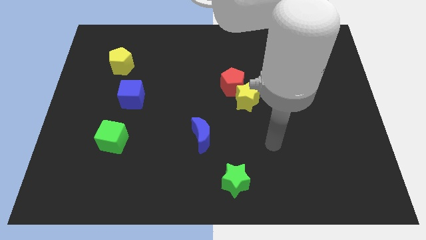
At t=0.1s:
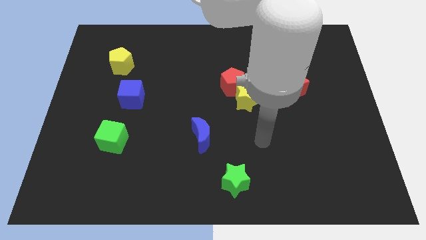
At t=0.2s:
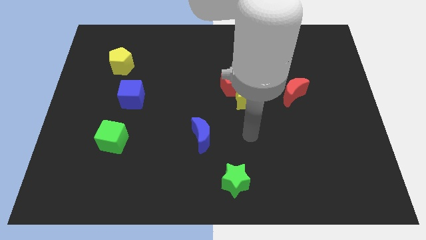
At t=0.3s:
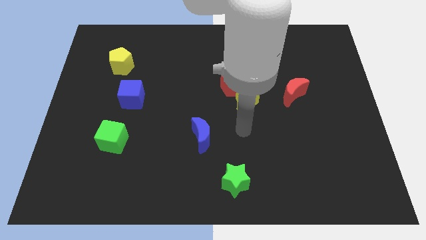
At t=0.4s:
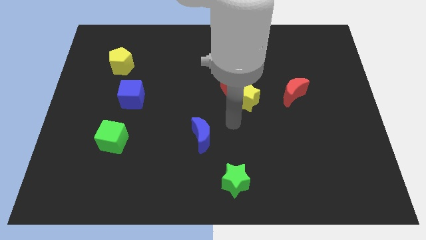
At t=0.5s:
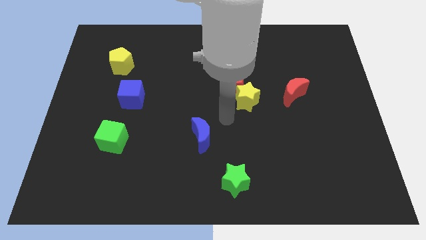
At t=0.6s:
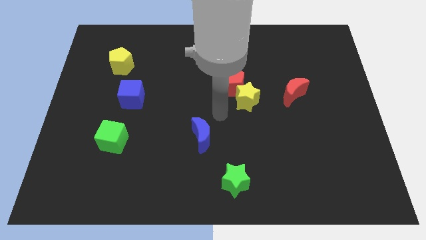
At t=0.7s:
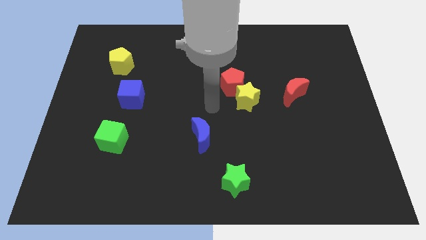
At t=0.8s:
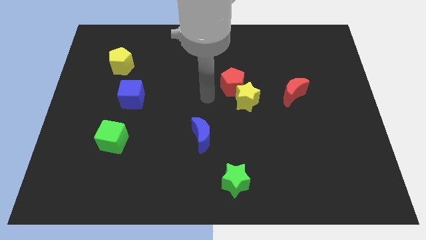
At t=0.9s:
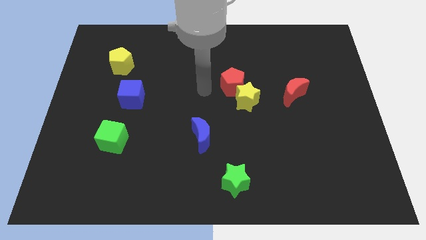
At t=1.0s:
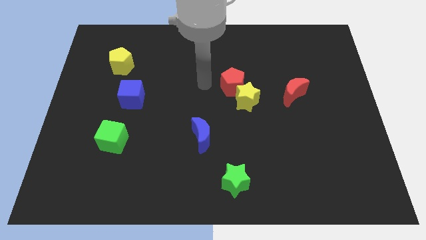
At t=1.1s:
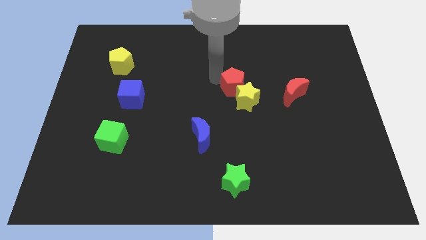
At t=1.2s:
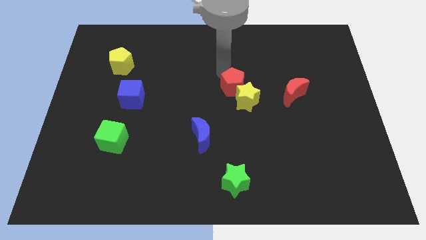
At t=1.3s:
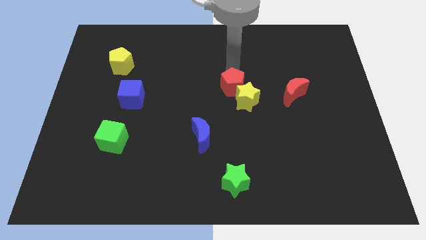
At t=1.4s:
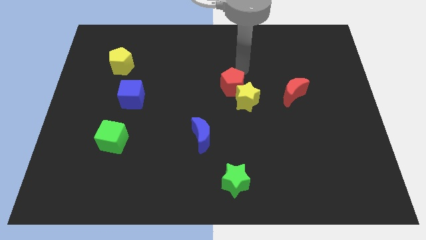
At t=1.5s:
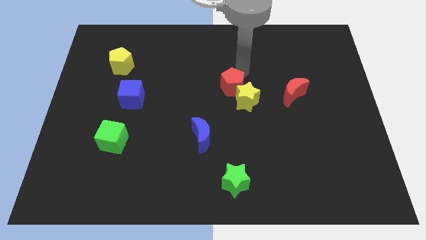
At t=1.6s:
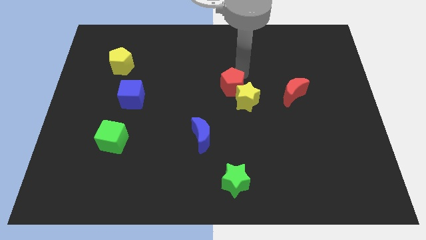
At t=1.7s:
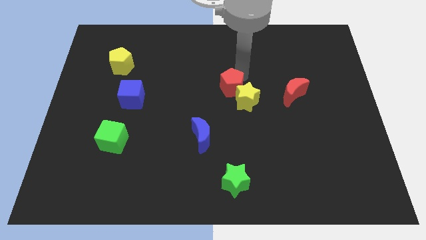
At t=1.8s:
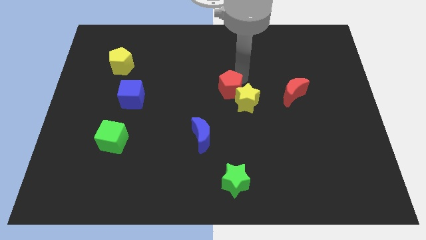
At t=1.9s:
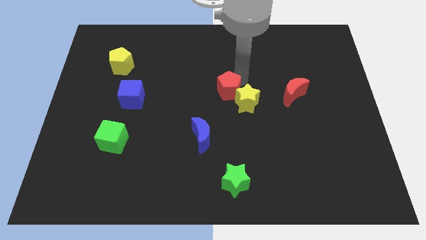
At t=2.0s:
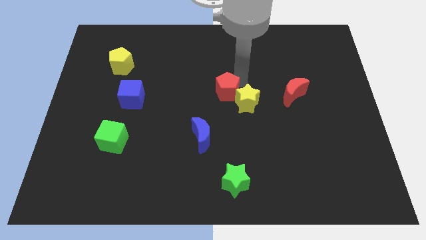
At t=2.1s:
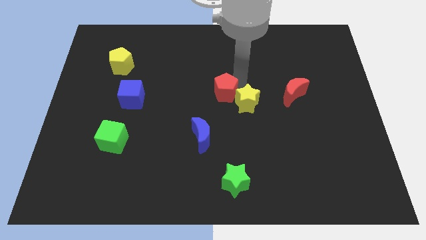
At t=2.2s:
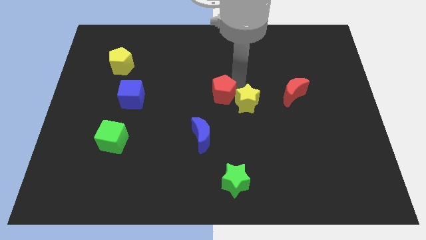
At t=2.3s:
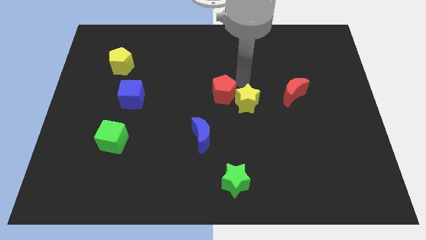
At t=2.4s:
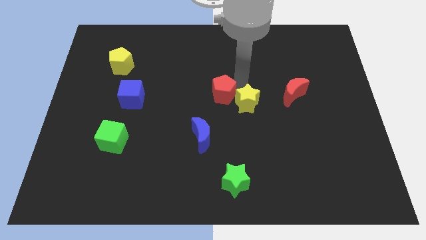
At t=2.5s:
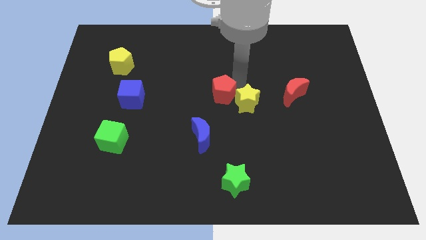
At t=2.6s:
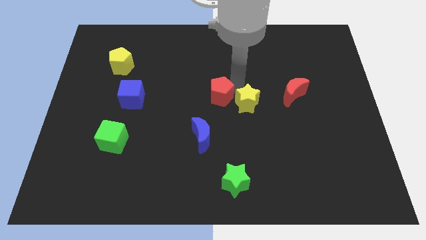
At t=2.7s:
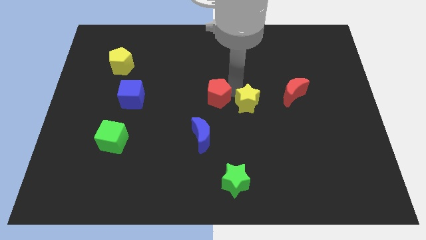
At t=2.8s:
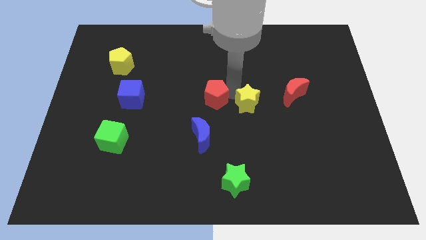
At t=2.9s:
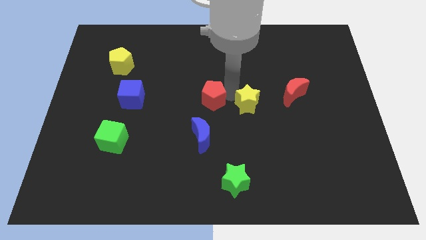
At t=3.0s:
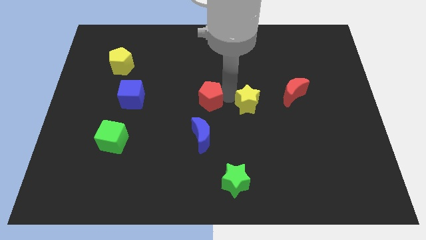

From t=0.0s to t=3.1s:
slightly push the red pentagon downwards and then left

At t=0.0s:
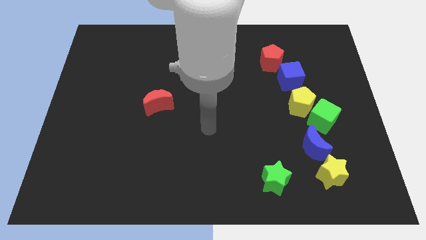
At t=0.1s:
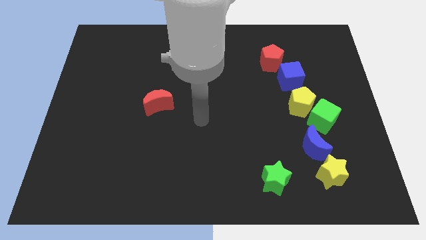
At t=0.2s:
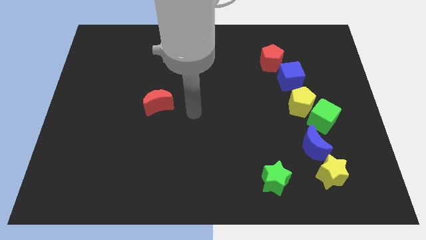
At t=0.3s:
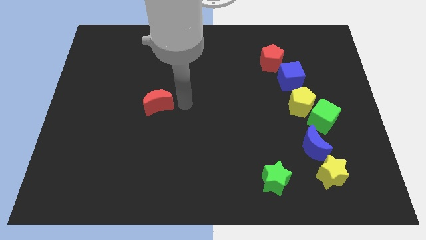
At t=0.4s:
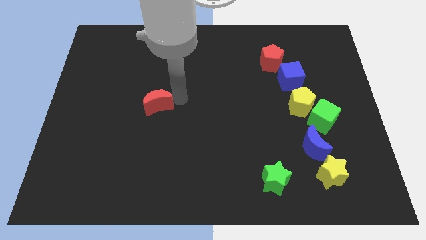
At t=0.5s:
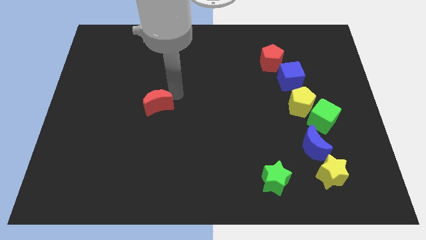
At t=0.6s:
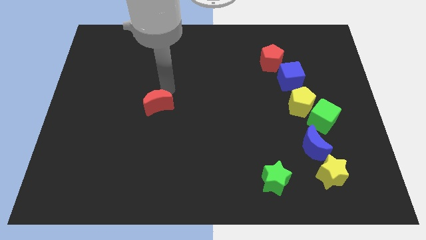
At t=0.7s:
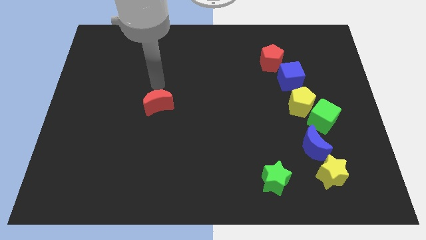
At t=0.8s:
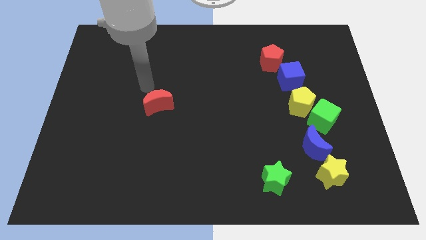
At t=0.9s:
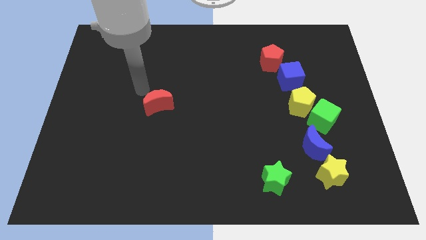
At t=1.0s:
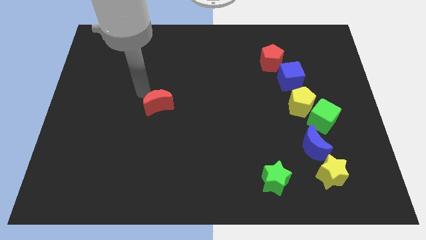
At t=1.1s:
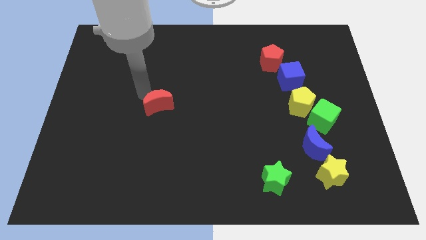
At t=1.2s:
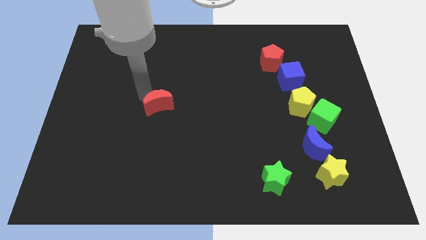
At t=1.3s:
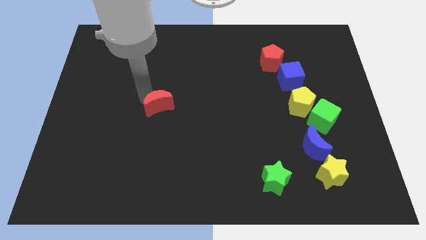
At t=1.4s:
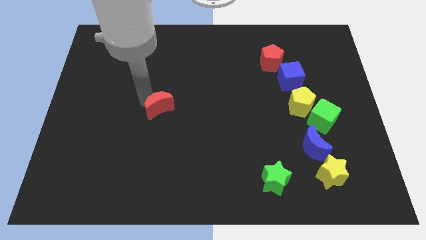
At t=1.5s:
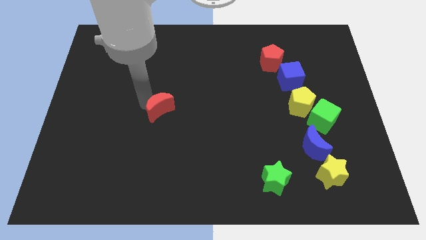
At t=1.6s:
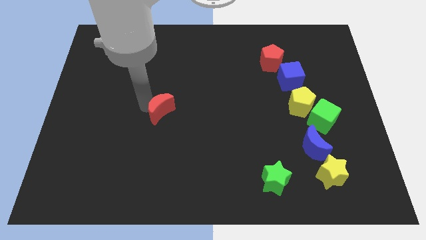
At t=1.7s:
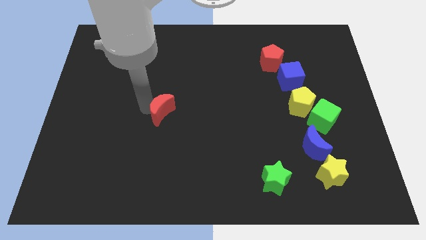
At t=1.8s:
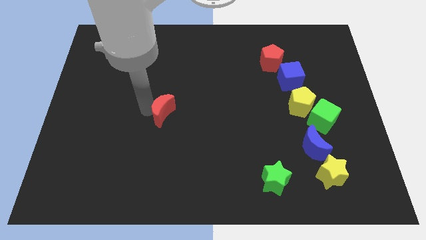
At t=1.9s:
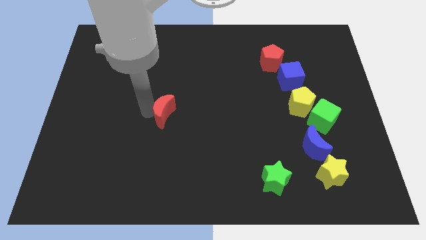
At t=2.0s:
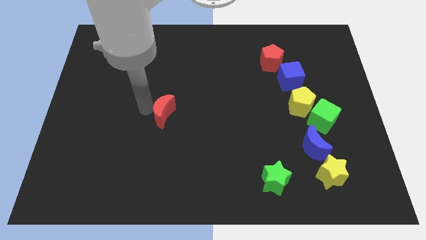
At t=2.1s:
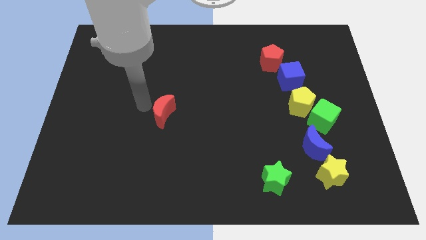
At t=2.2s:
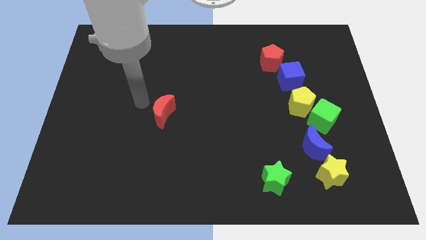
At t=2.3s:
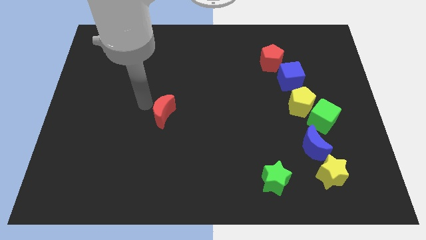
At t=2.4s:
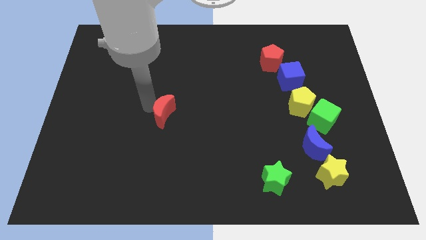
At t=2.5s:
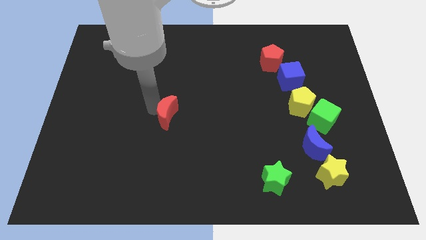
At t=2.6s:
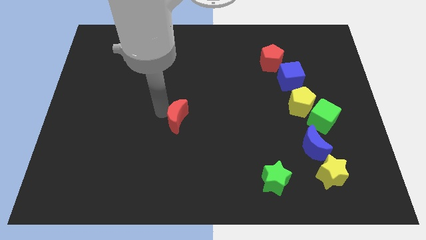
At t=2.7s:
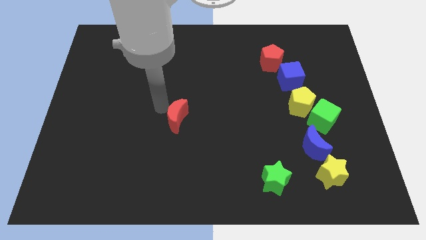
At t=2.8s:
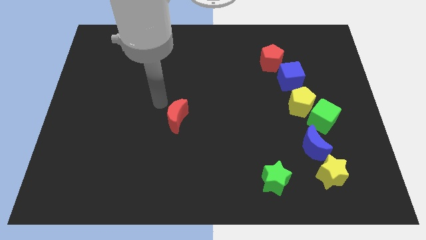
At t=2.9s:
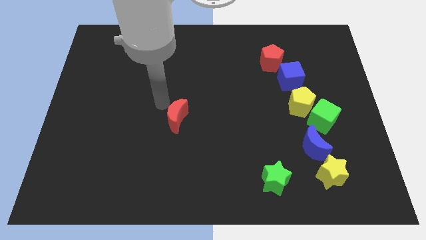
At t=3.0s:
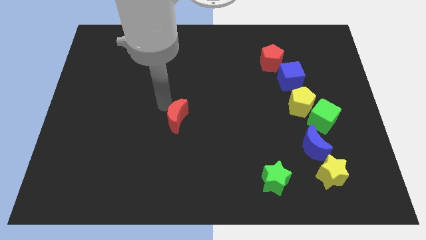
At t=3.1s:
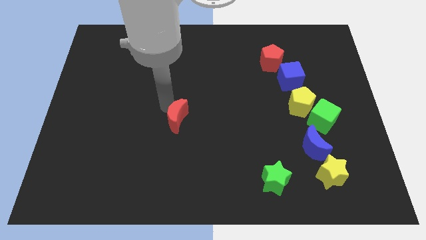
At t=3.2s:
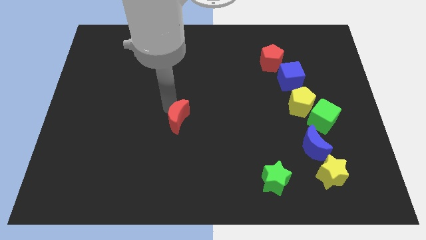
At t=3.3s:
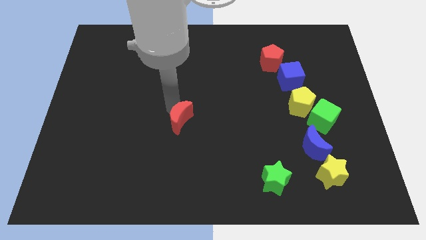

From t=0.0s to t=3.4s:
move the red moon down and to the right slightly

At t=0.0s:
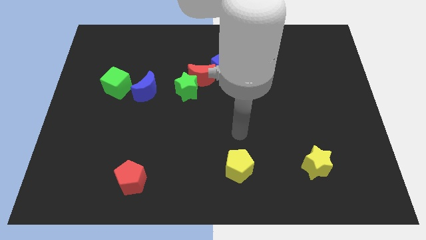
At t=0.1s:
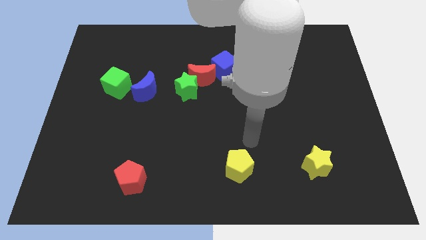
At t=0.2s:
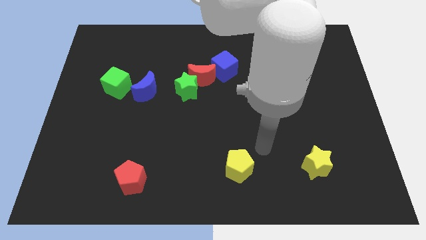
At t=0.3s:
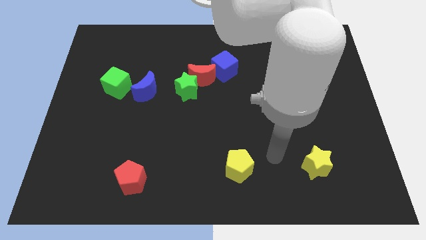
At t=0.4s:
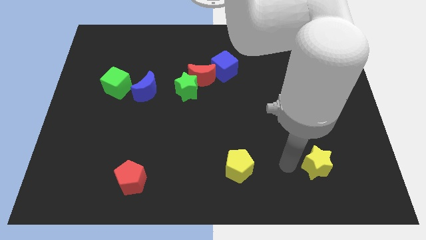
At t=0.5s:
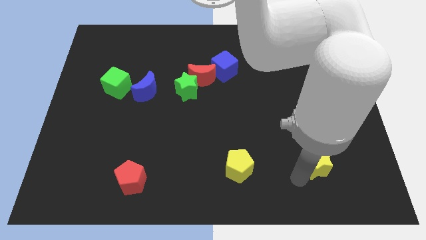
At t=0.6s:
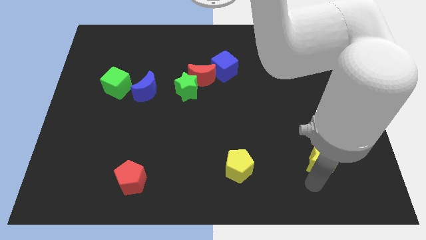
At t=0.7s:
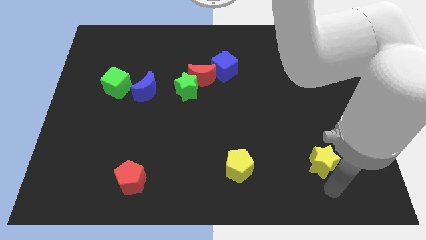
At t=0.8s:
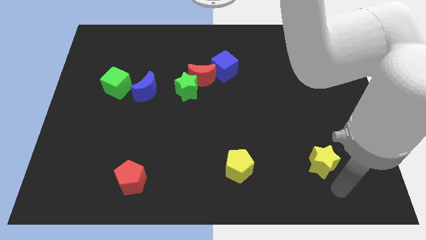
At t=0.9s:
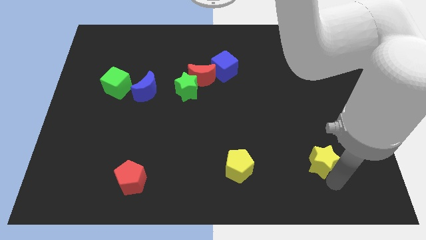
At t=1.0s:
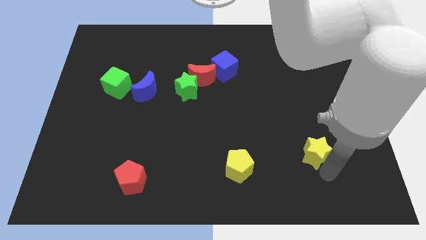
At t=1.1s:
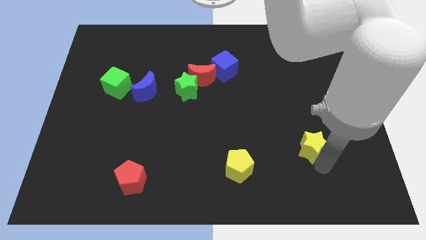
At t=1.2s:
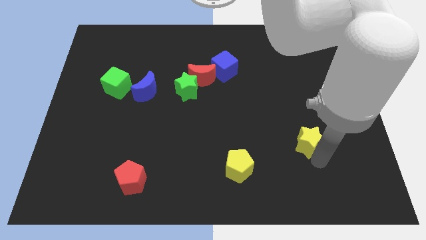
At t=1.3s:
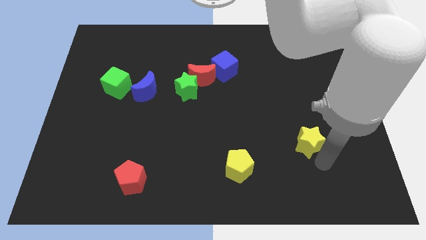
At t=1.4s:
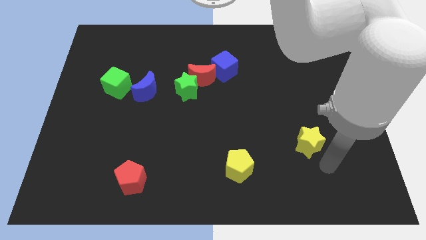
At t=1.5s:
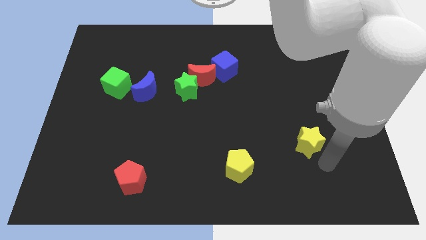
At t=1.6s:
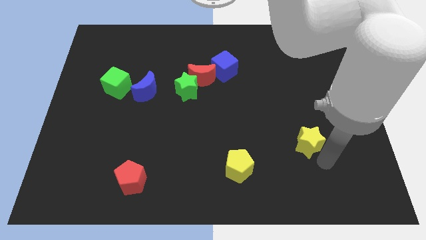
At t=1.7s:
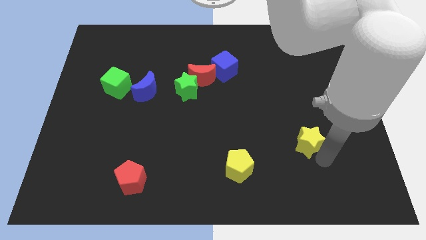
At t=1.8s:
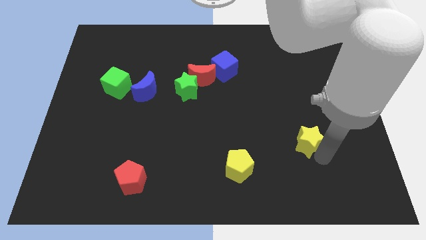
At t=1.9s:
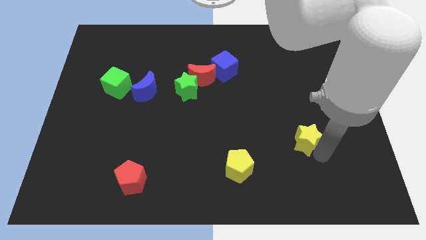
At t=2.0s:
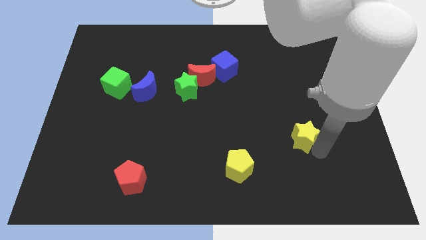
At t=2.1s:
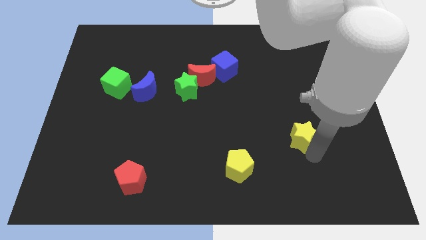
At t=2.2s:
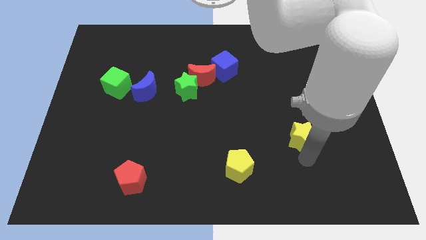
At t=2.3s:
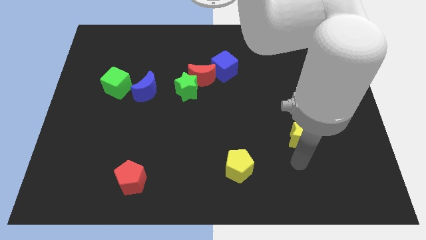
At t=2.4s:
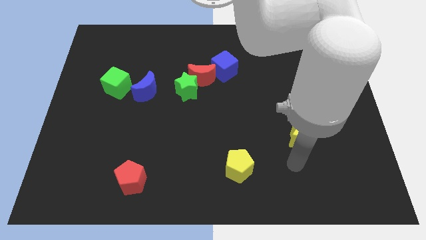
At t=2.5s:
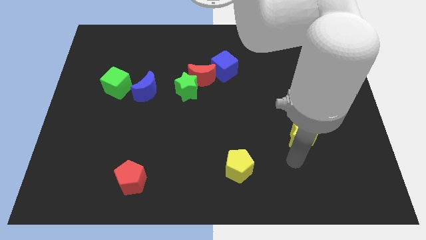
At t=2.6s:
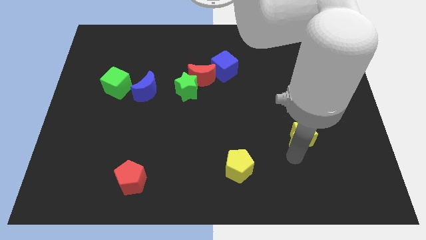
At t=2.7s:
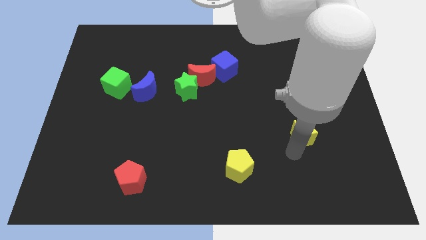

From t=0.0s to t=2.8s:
slide the yellow star upwards slightly
